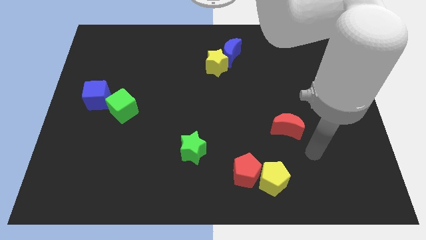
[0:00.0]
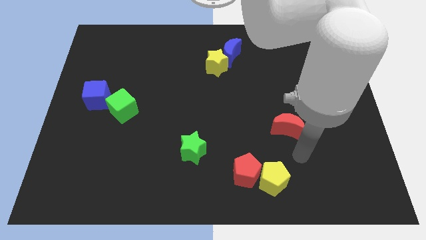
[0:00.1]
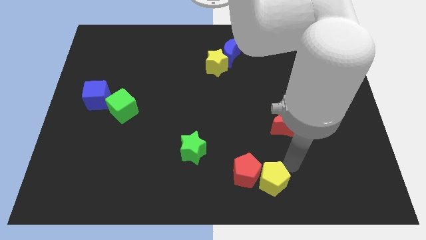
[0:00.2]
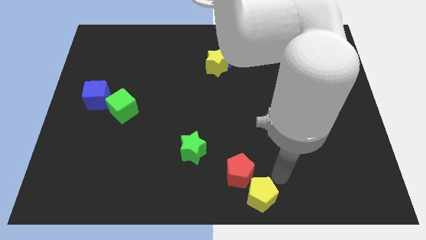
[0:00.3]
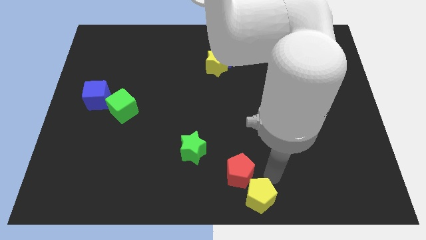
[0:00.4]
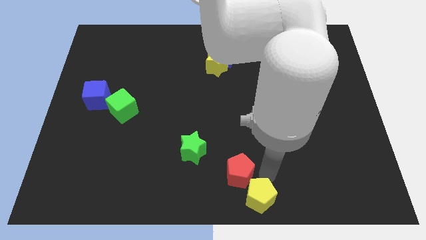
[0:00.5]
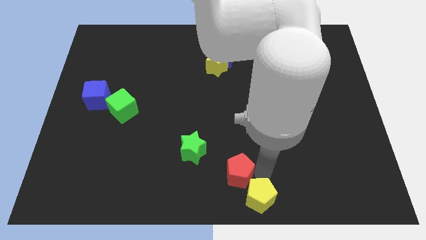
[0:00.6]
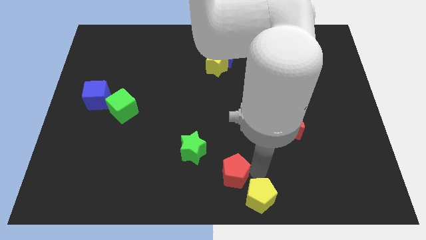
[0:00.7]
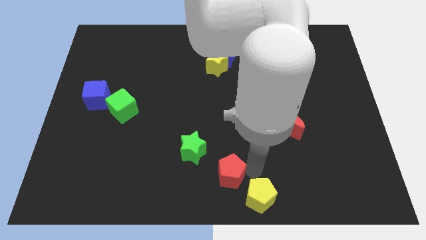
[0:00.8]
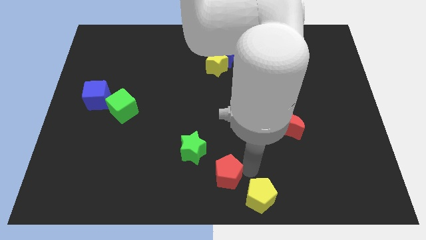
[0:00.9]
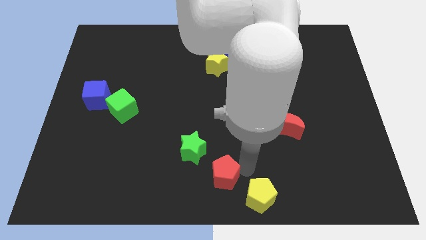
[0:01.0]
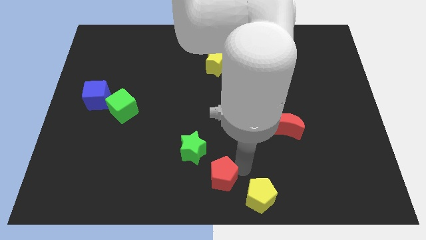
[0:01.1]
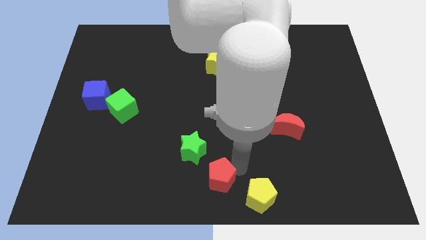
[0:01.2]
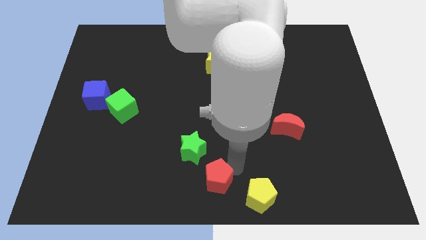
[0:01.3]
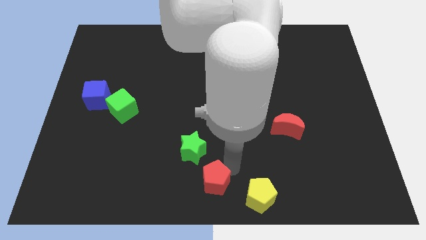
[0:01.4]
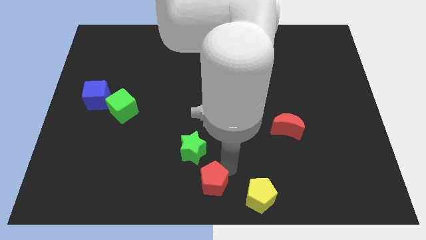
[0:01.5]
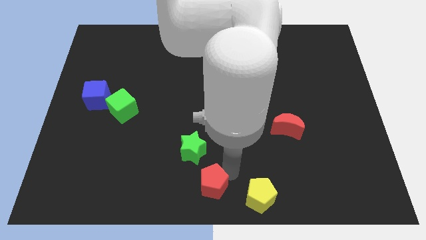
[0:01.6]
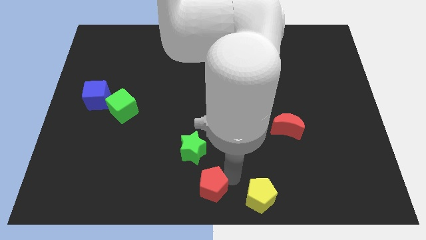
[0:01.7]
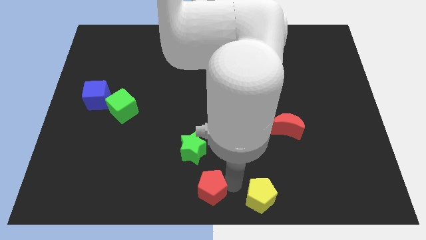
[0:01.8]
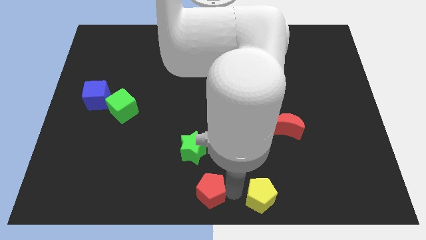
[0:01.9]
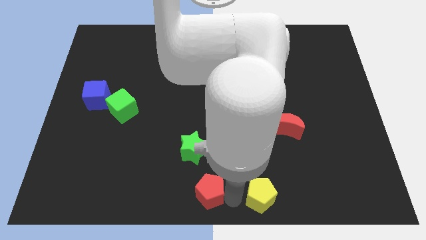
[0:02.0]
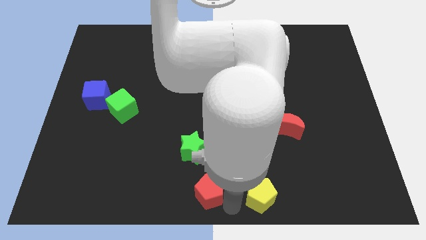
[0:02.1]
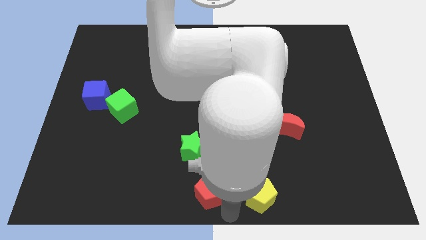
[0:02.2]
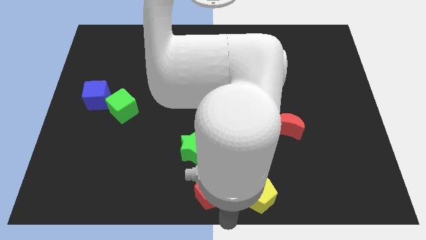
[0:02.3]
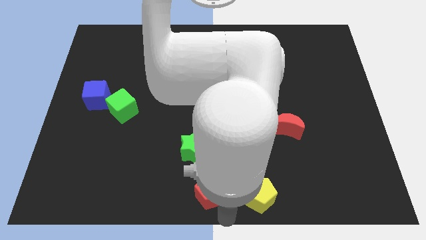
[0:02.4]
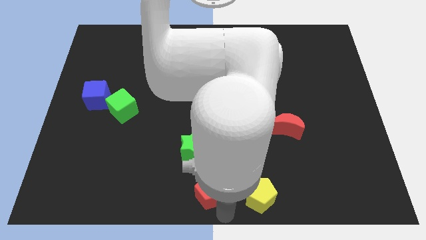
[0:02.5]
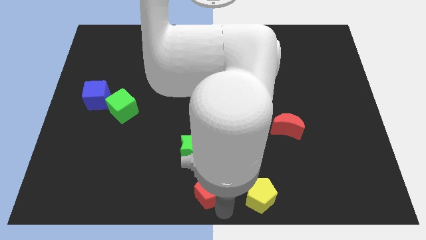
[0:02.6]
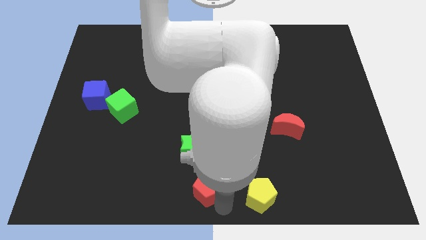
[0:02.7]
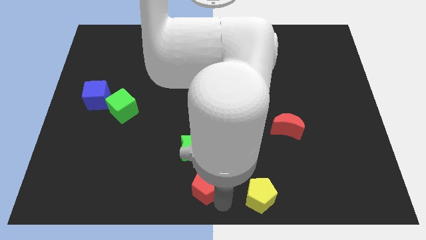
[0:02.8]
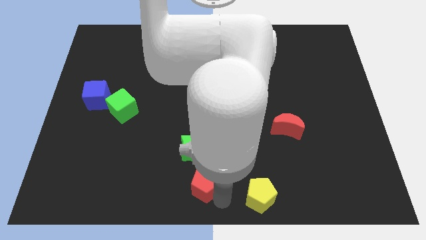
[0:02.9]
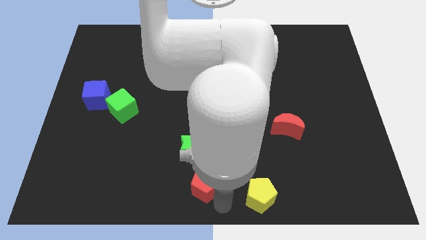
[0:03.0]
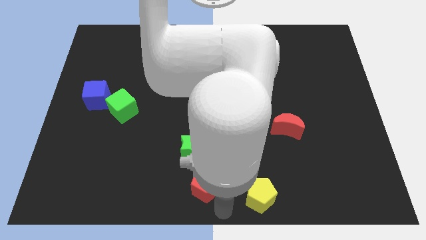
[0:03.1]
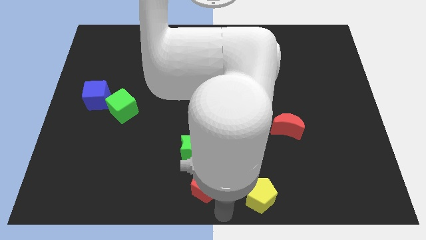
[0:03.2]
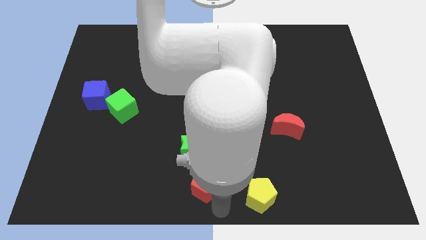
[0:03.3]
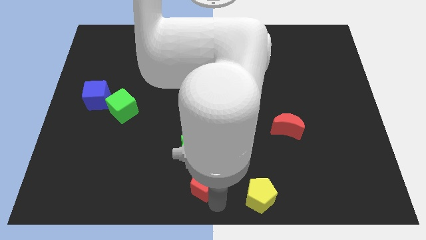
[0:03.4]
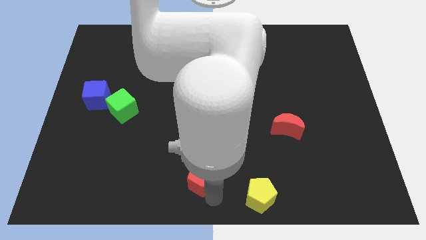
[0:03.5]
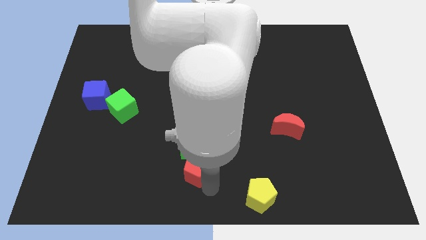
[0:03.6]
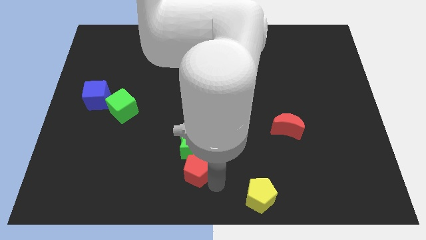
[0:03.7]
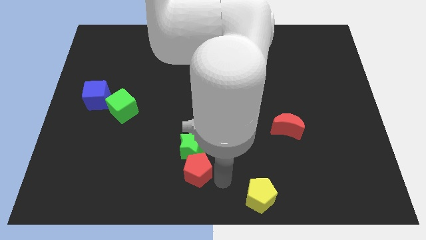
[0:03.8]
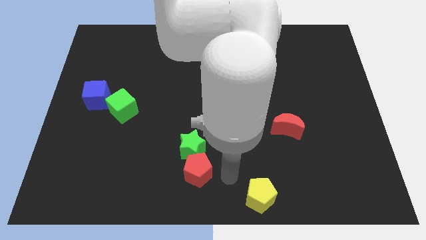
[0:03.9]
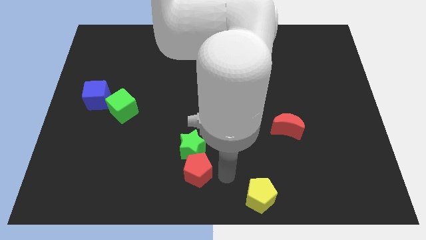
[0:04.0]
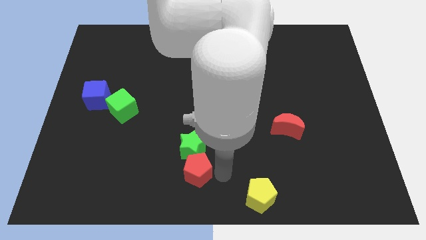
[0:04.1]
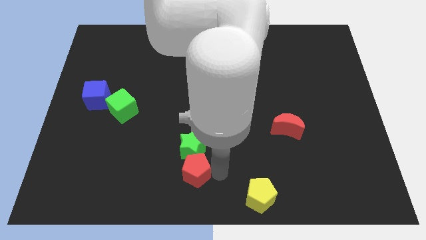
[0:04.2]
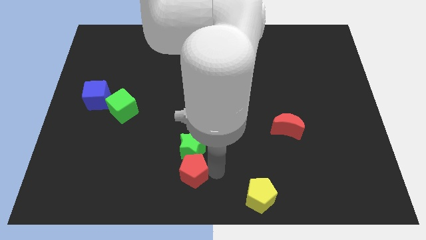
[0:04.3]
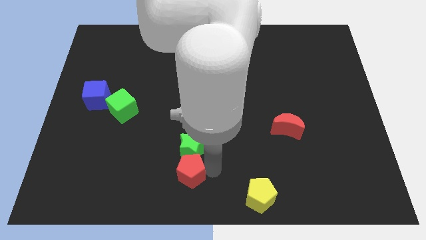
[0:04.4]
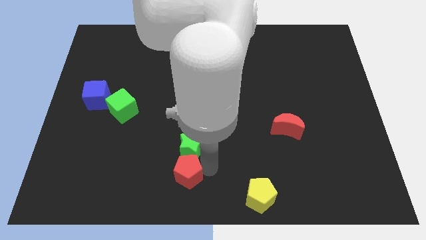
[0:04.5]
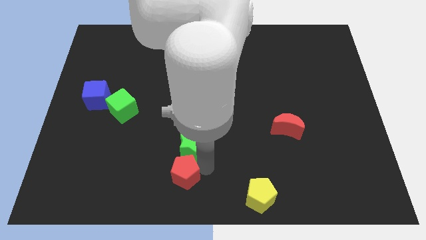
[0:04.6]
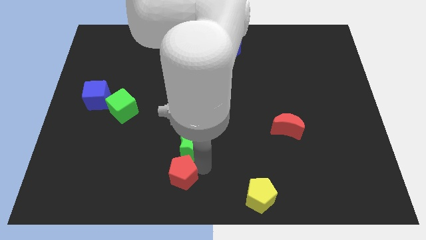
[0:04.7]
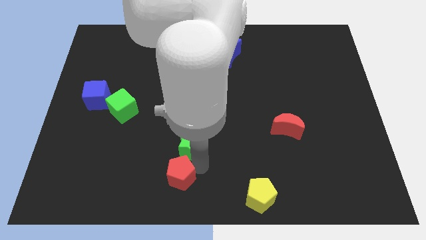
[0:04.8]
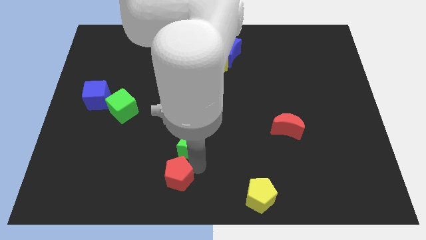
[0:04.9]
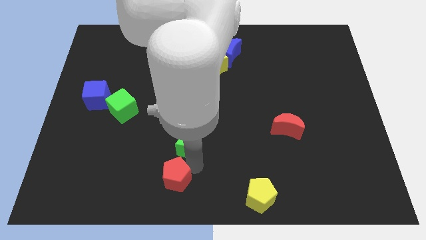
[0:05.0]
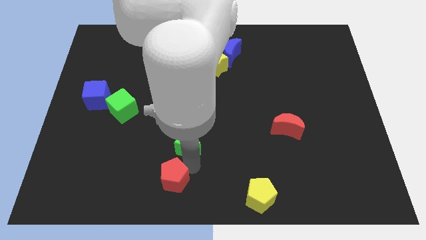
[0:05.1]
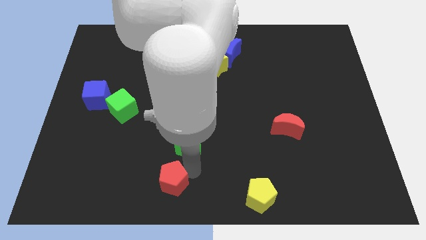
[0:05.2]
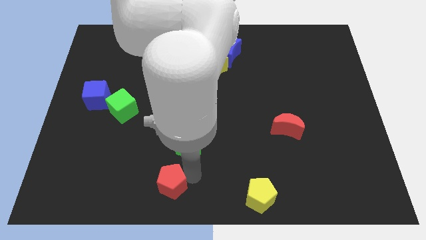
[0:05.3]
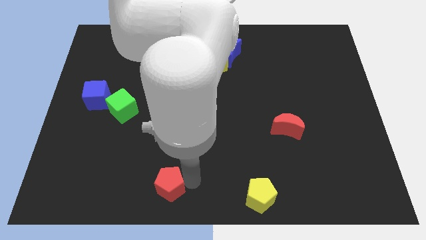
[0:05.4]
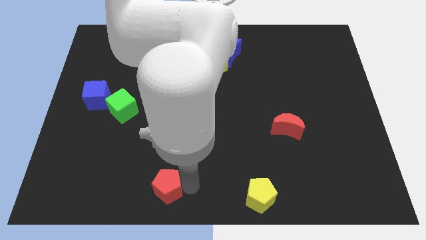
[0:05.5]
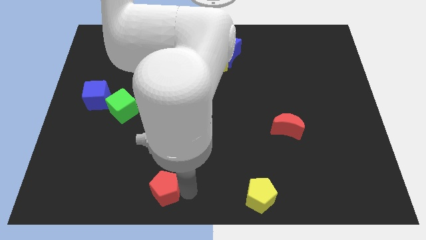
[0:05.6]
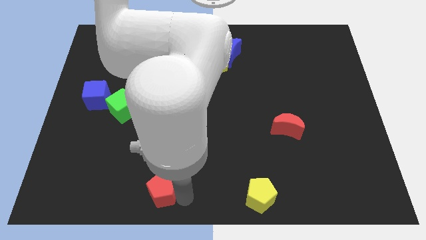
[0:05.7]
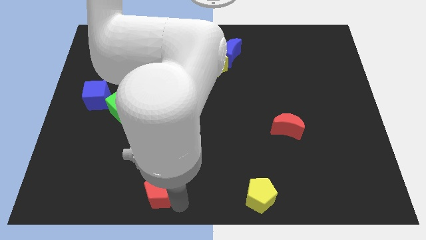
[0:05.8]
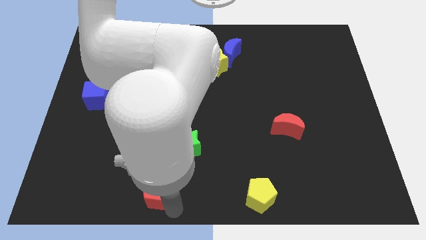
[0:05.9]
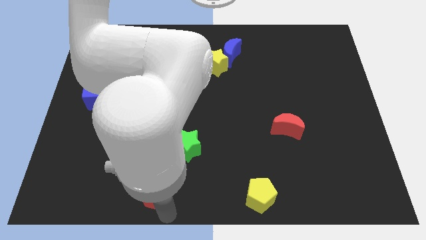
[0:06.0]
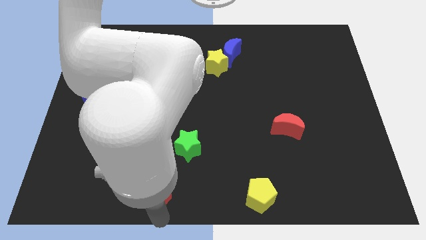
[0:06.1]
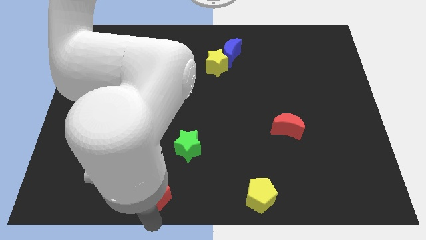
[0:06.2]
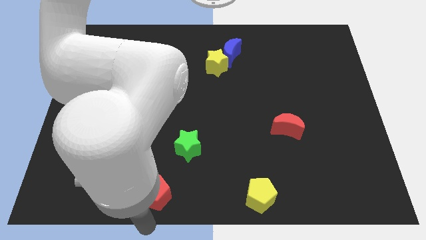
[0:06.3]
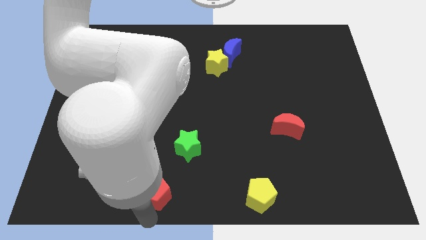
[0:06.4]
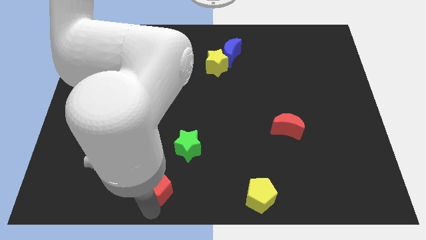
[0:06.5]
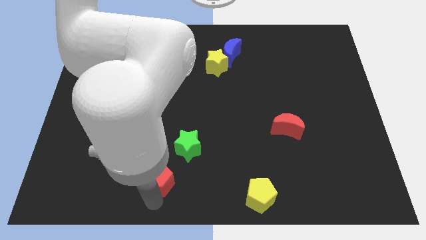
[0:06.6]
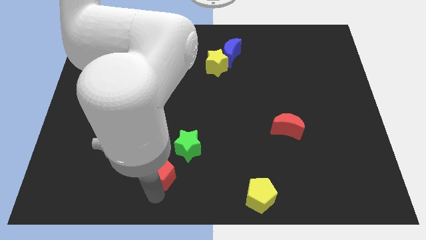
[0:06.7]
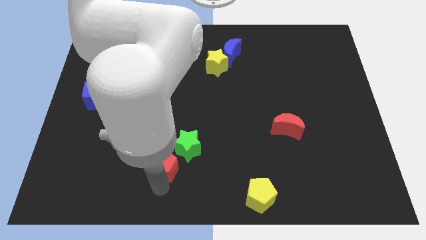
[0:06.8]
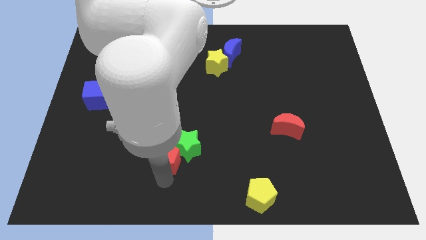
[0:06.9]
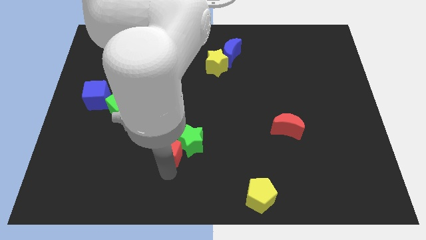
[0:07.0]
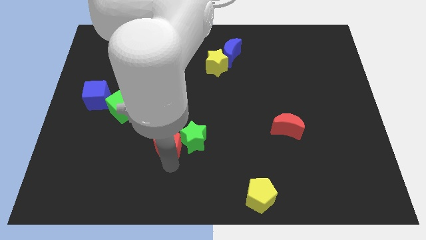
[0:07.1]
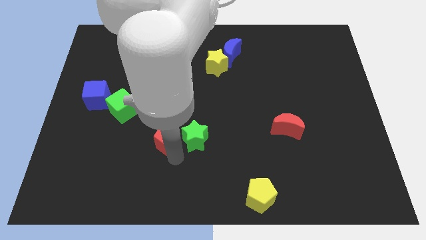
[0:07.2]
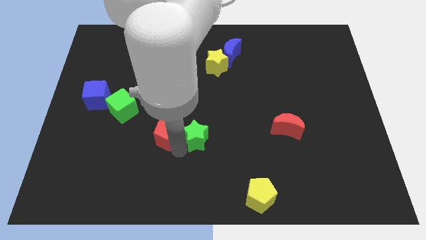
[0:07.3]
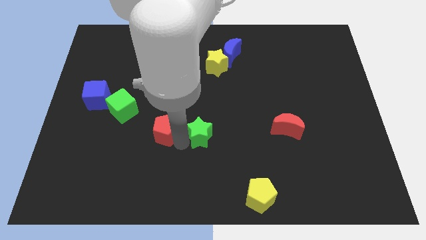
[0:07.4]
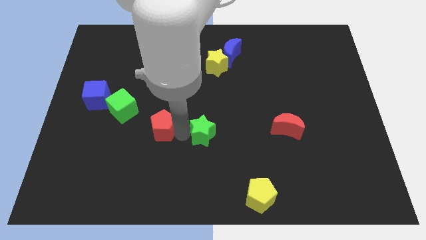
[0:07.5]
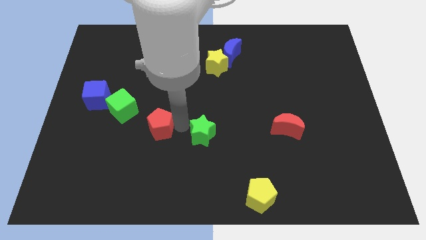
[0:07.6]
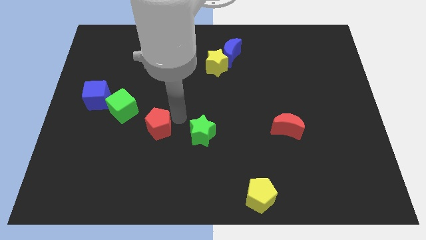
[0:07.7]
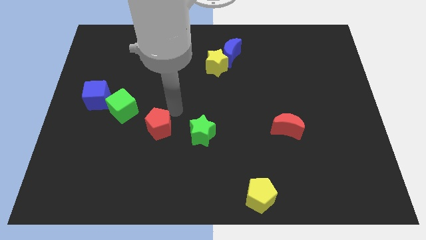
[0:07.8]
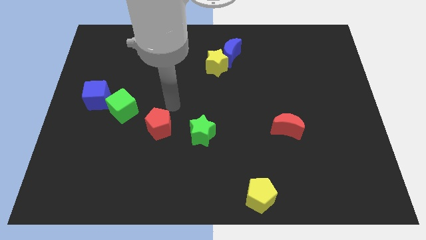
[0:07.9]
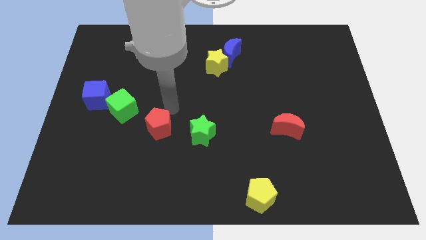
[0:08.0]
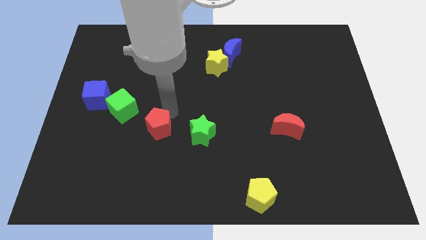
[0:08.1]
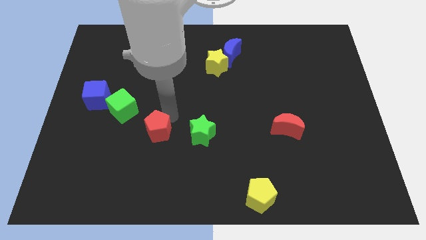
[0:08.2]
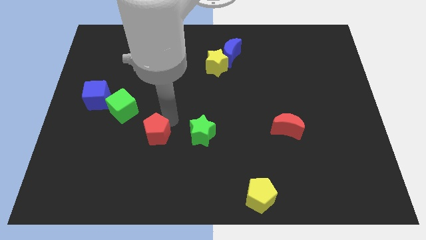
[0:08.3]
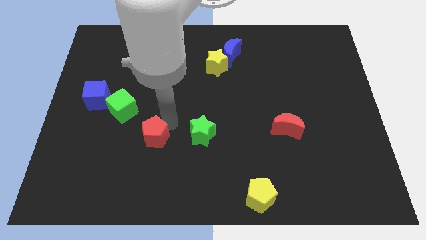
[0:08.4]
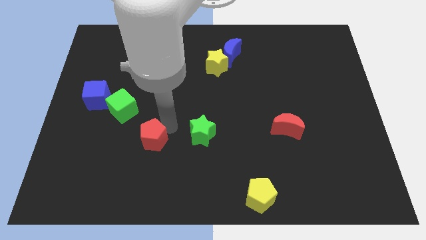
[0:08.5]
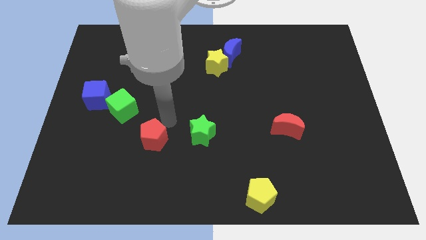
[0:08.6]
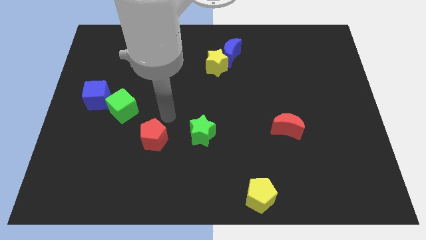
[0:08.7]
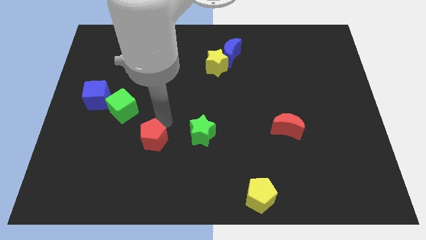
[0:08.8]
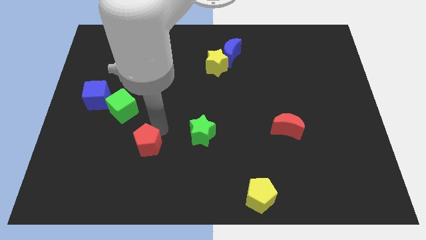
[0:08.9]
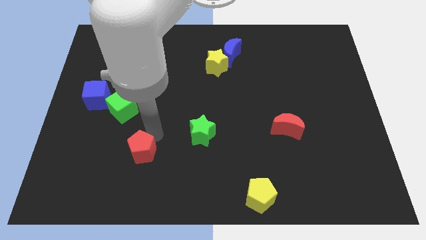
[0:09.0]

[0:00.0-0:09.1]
push the red pentagon to the left
